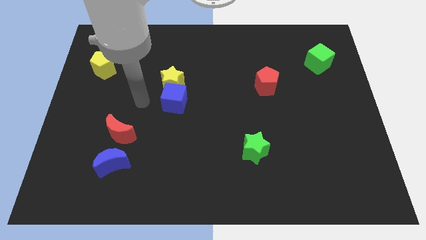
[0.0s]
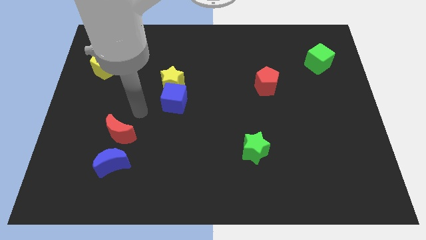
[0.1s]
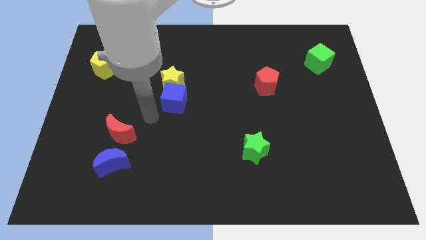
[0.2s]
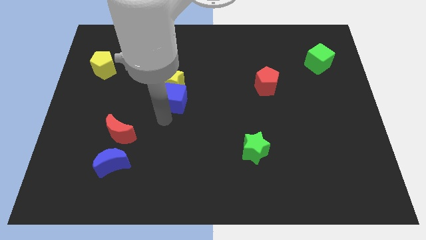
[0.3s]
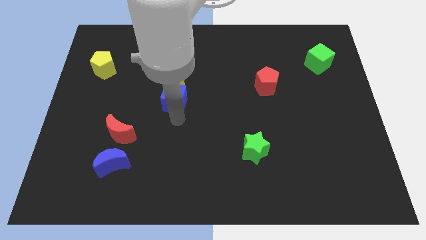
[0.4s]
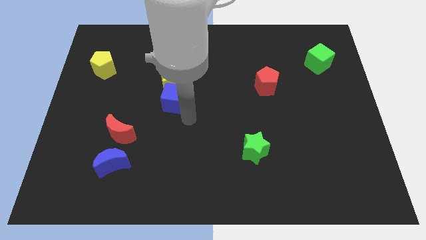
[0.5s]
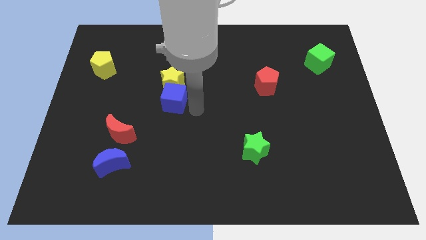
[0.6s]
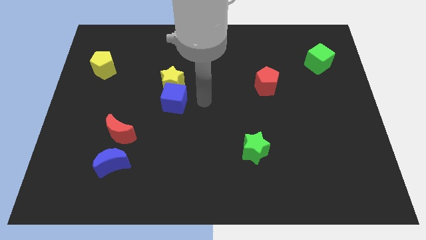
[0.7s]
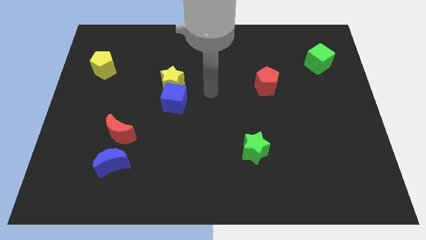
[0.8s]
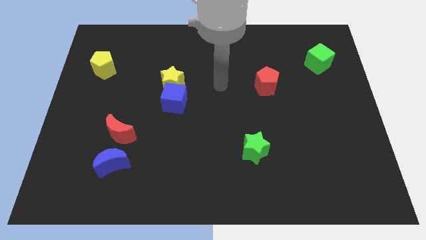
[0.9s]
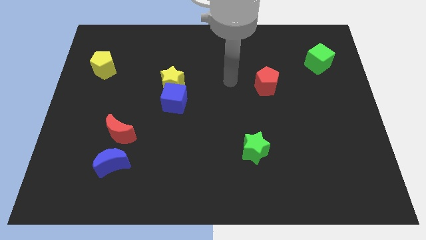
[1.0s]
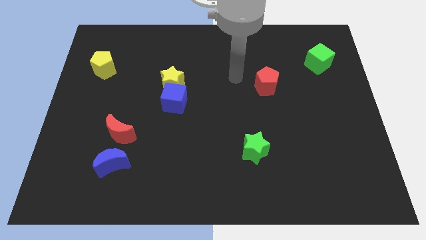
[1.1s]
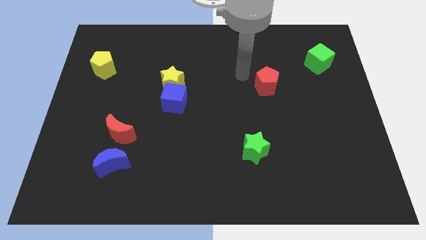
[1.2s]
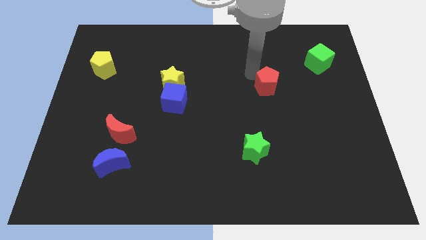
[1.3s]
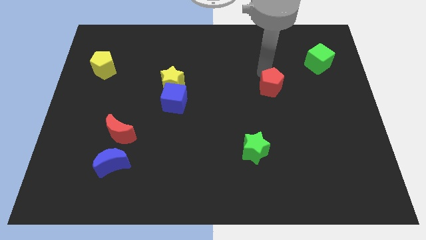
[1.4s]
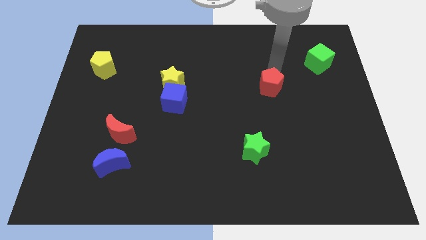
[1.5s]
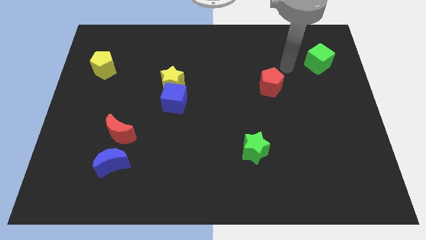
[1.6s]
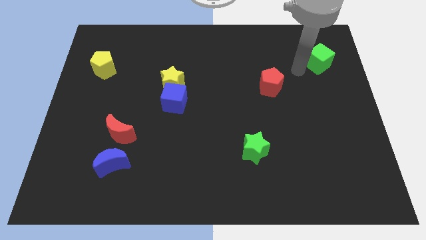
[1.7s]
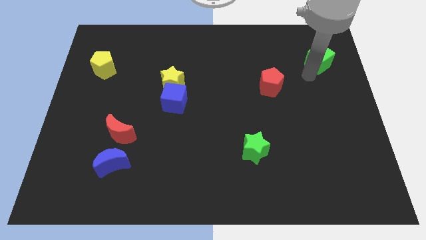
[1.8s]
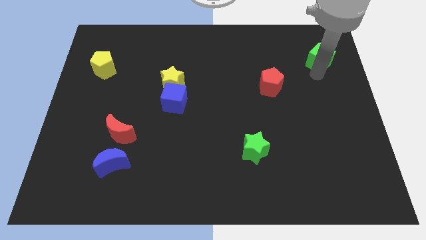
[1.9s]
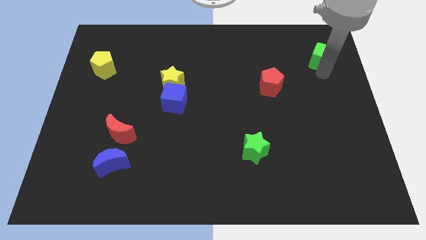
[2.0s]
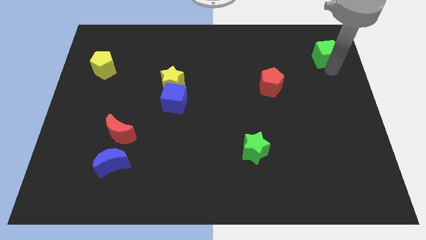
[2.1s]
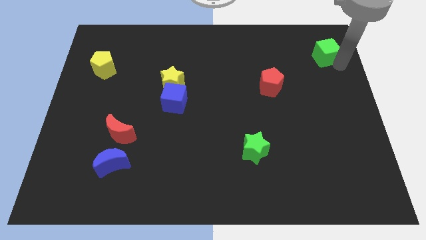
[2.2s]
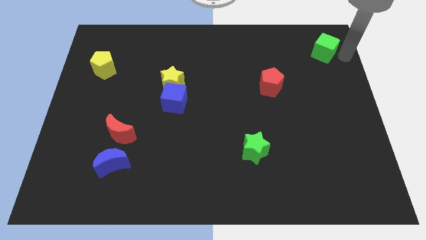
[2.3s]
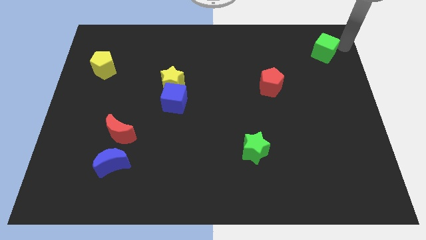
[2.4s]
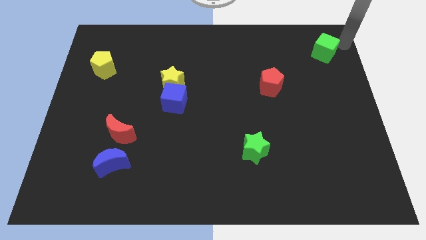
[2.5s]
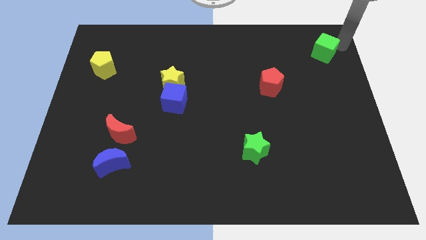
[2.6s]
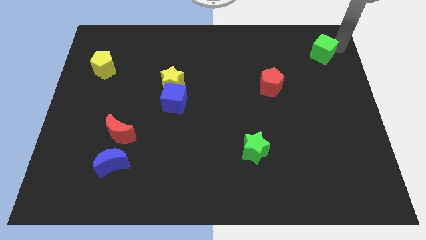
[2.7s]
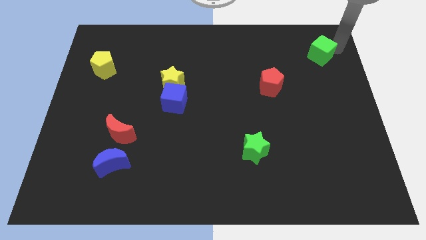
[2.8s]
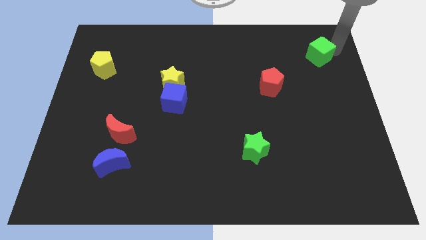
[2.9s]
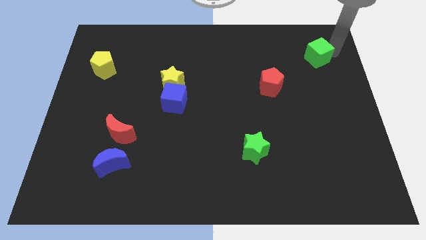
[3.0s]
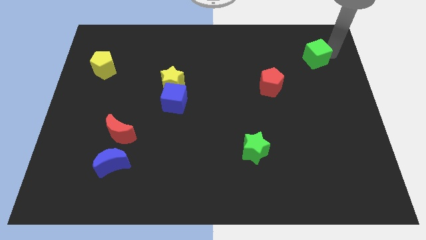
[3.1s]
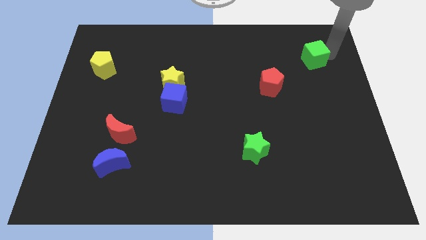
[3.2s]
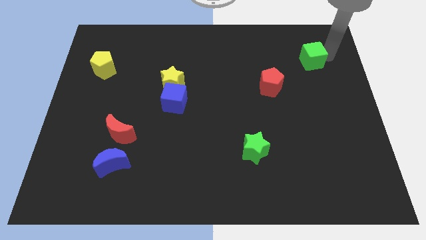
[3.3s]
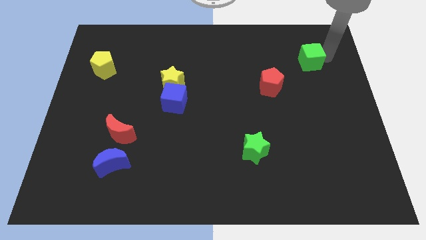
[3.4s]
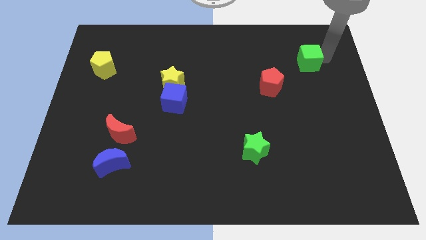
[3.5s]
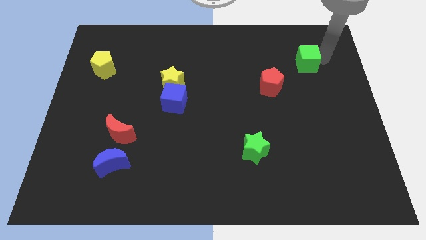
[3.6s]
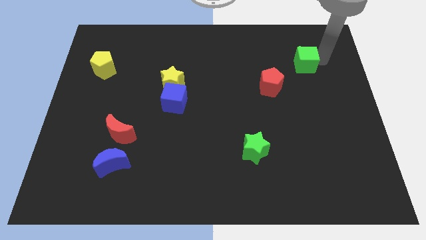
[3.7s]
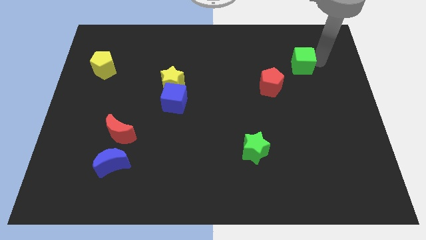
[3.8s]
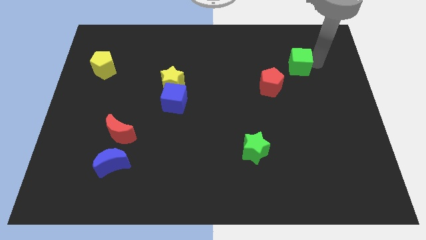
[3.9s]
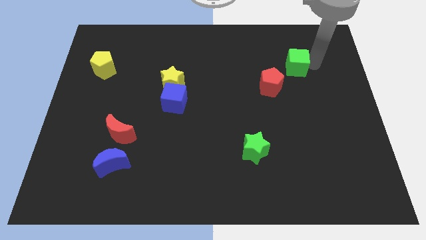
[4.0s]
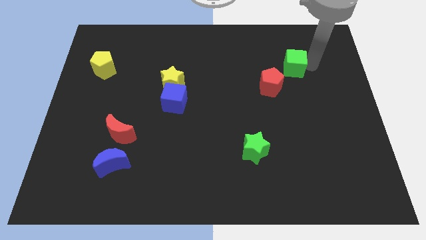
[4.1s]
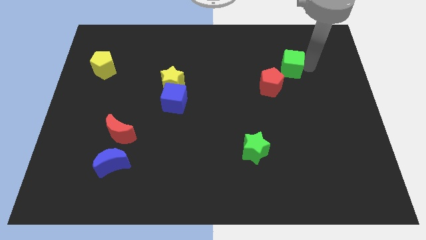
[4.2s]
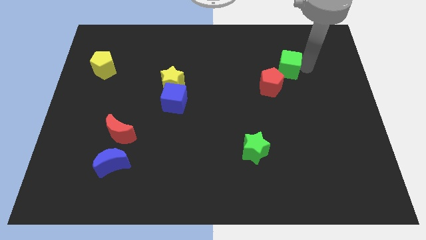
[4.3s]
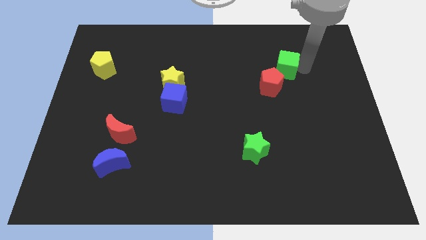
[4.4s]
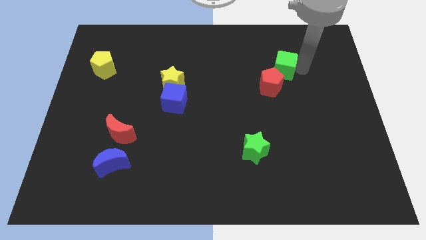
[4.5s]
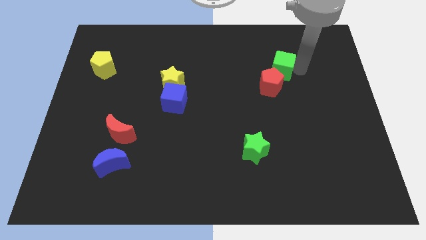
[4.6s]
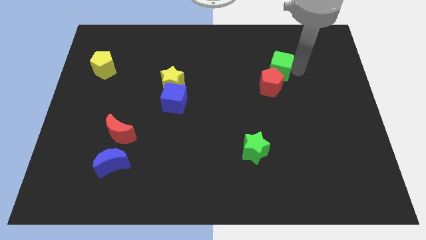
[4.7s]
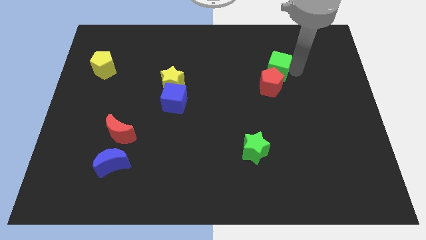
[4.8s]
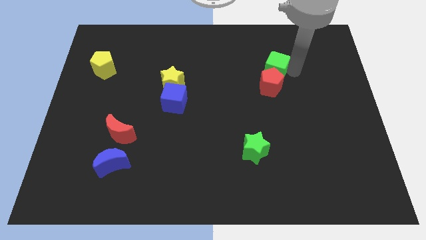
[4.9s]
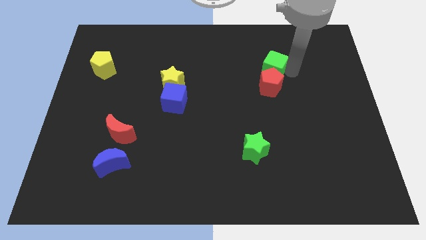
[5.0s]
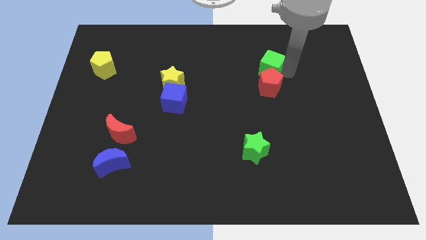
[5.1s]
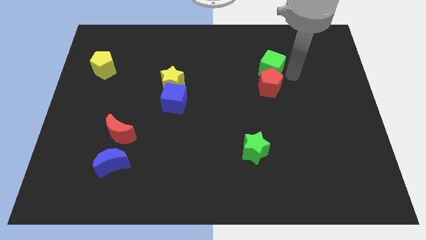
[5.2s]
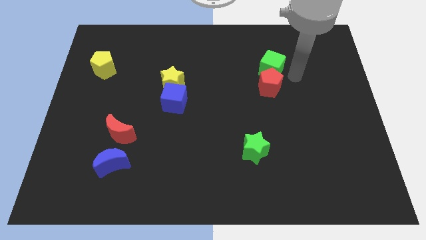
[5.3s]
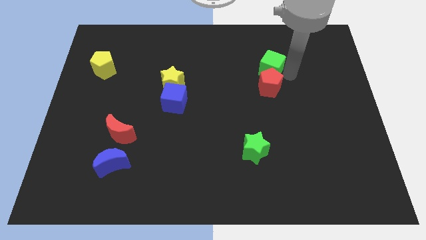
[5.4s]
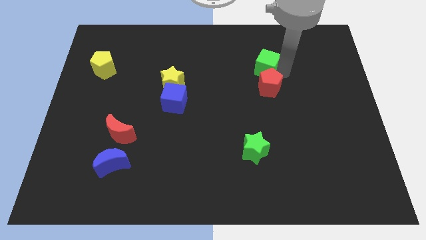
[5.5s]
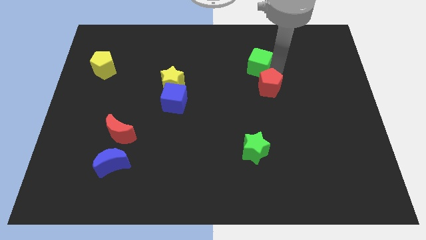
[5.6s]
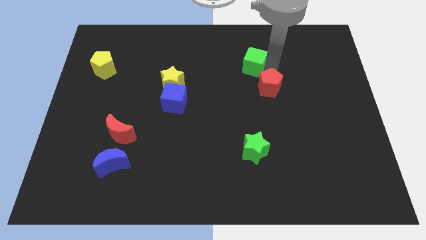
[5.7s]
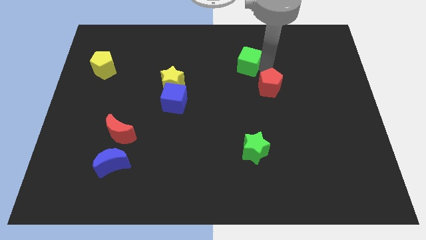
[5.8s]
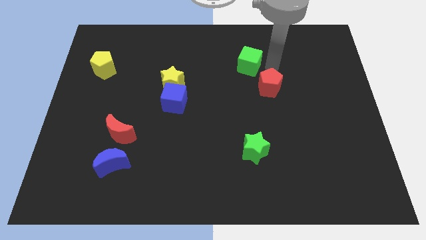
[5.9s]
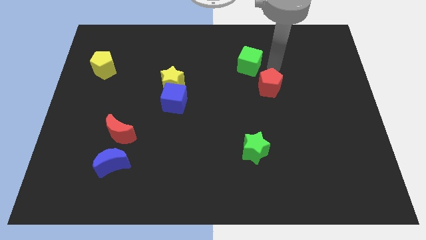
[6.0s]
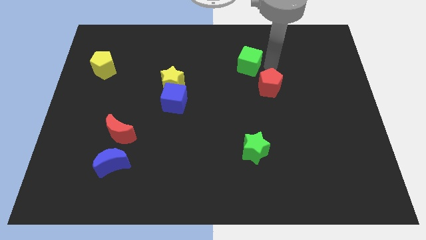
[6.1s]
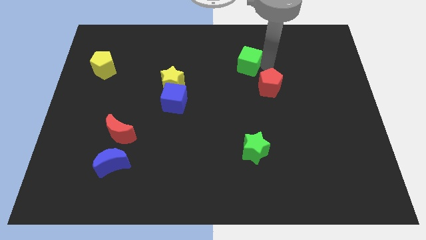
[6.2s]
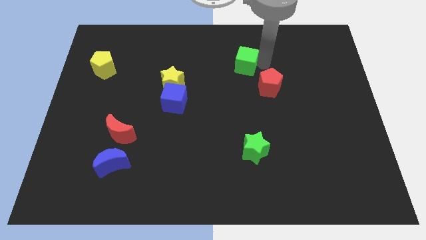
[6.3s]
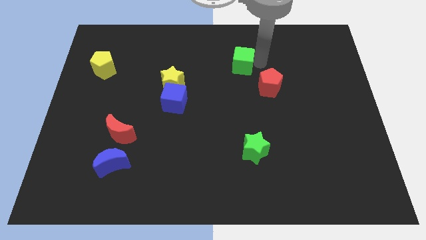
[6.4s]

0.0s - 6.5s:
move the green cube left

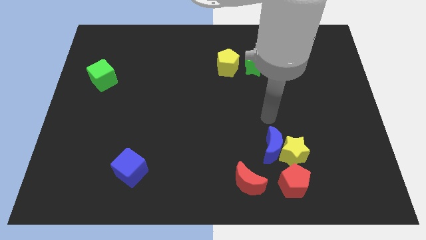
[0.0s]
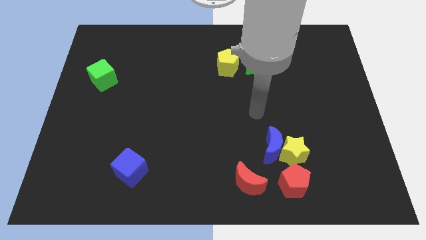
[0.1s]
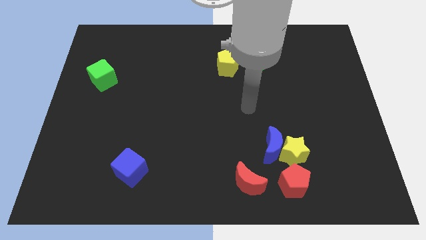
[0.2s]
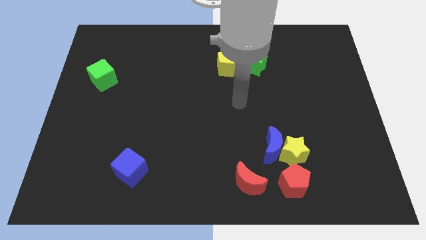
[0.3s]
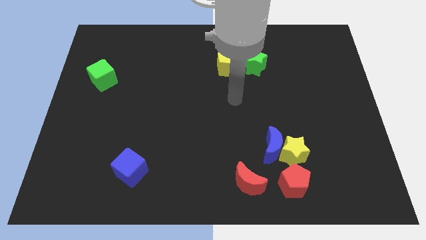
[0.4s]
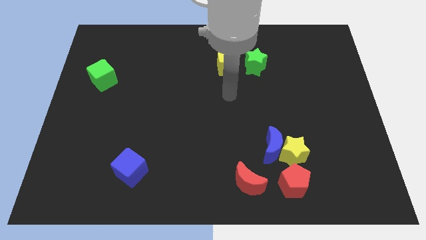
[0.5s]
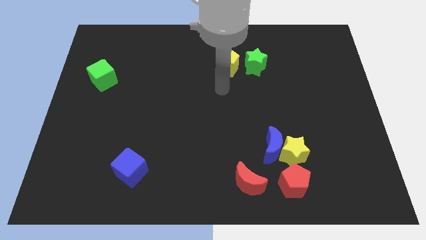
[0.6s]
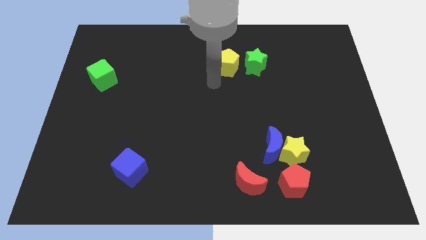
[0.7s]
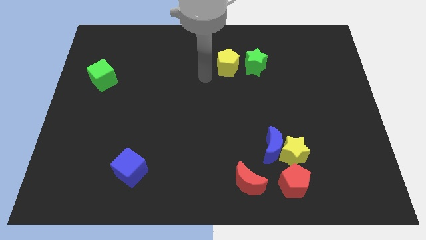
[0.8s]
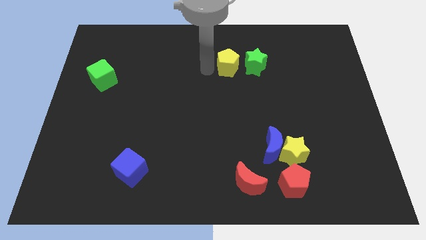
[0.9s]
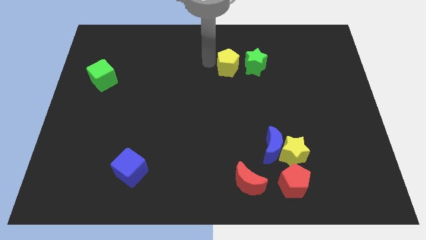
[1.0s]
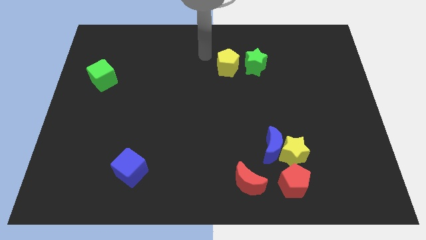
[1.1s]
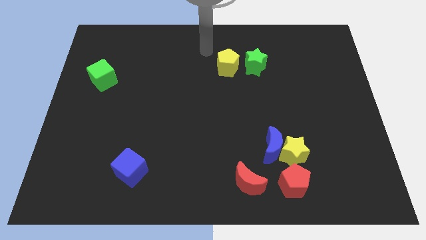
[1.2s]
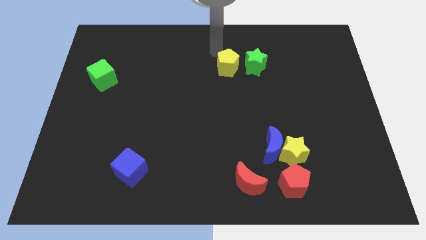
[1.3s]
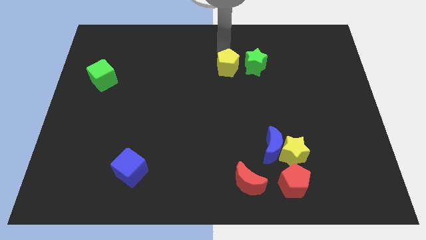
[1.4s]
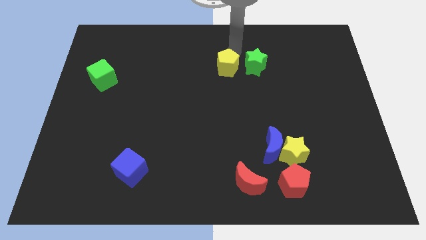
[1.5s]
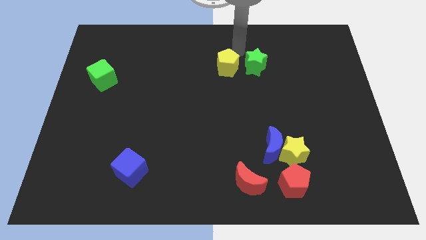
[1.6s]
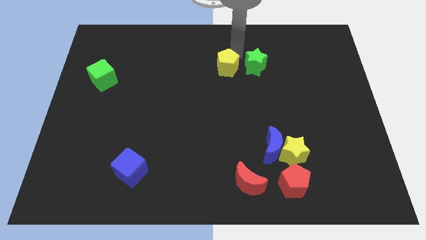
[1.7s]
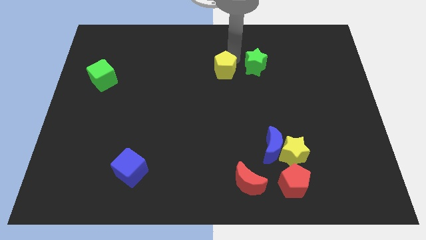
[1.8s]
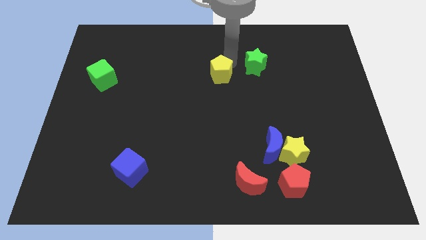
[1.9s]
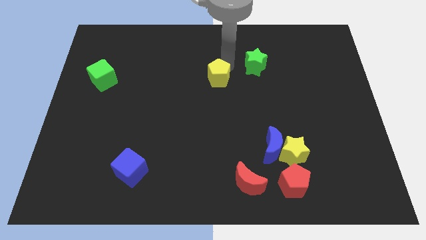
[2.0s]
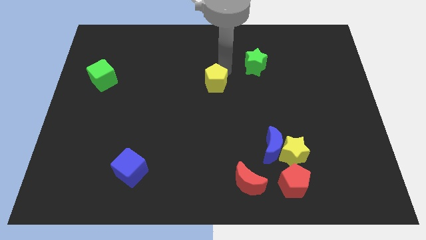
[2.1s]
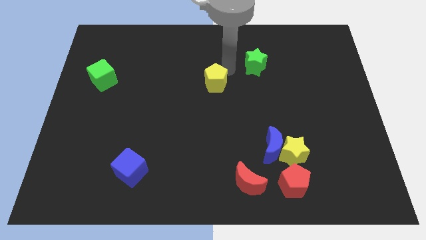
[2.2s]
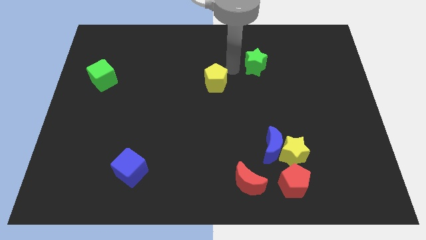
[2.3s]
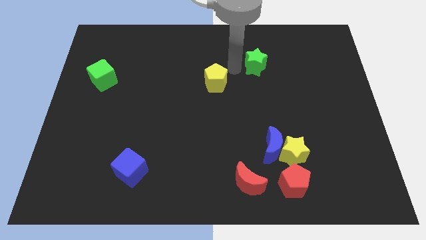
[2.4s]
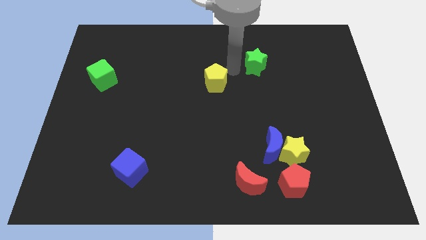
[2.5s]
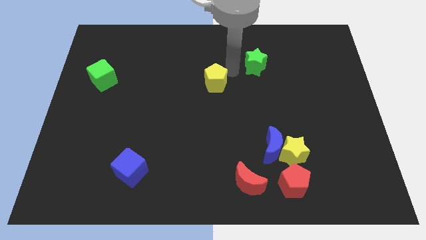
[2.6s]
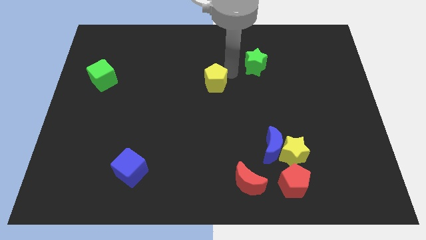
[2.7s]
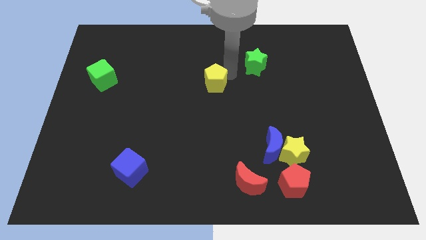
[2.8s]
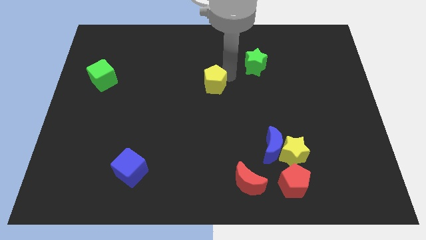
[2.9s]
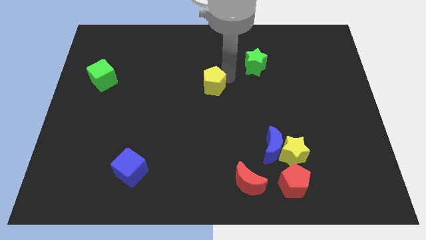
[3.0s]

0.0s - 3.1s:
slightly push the yellow pentagon diagonally down and to the left
